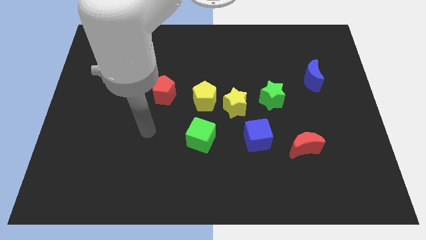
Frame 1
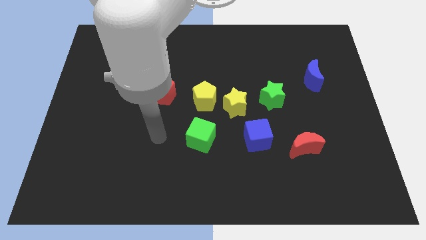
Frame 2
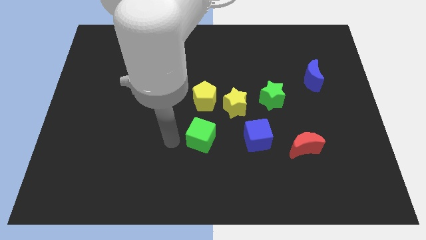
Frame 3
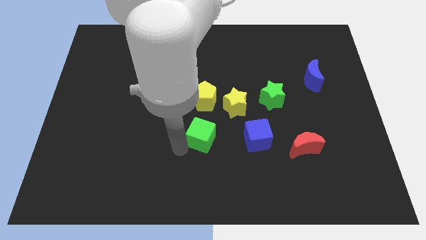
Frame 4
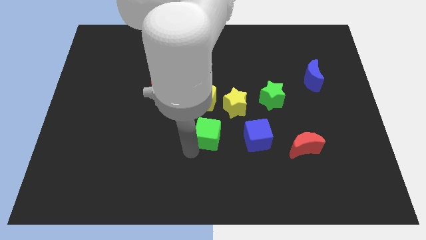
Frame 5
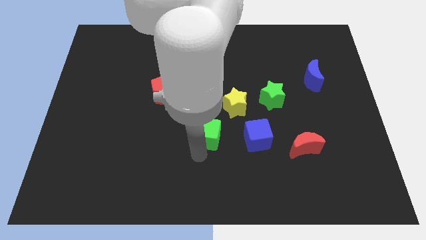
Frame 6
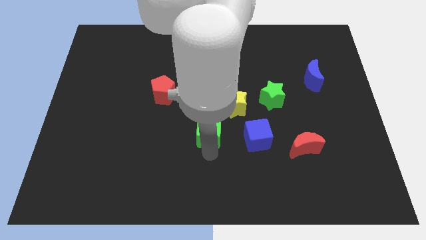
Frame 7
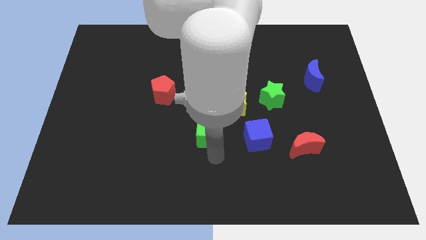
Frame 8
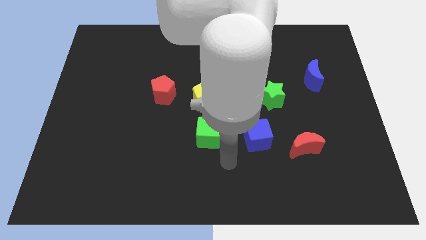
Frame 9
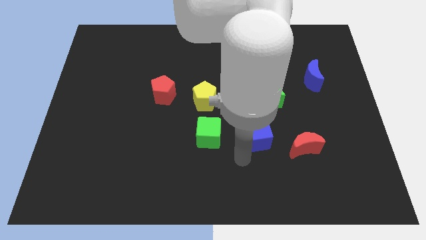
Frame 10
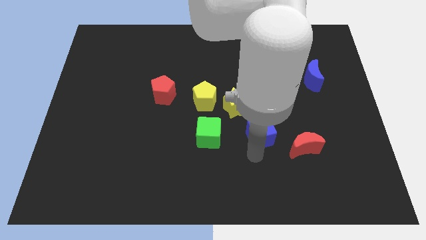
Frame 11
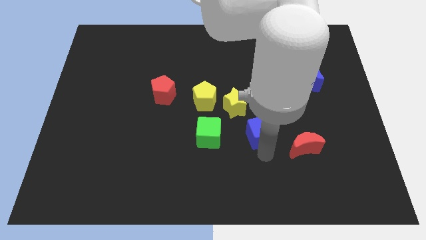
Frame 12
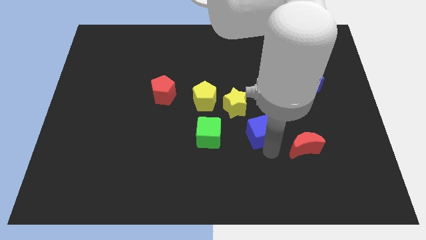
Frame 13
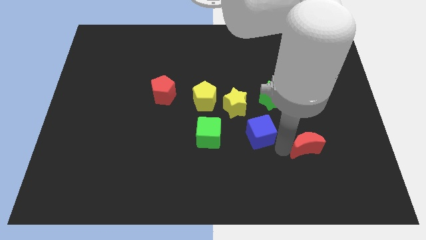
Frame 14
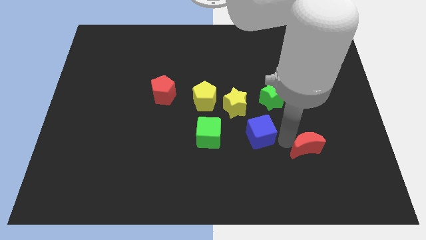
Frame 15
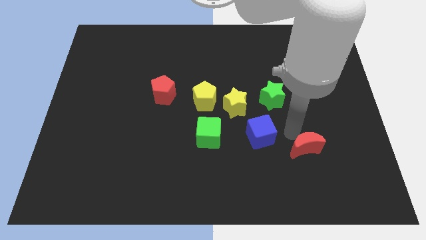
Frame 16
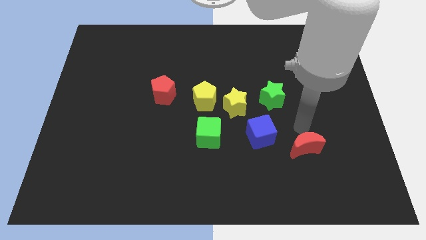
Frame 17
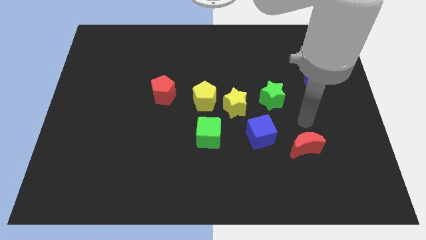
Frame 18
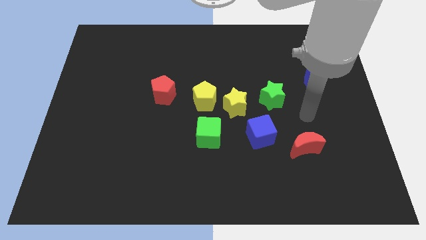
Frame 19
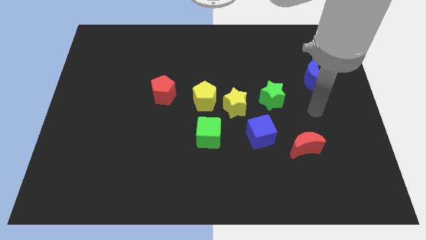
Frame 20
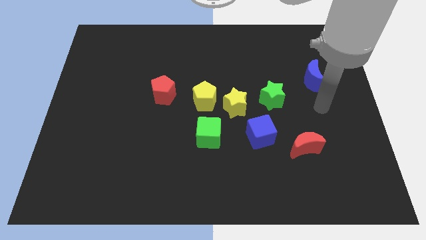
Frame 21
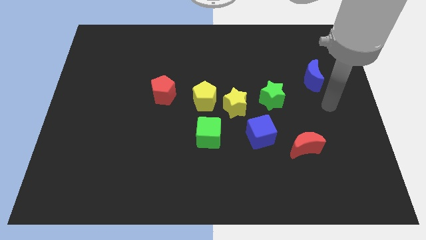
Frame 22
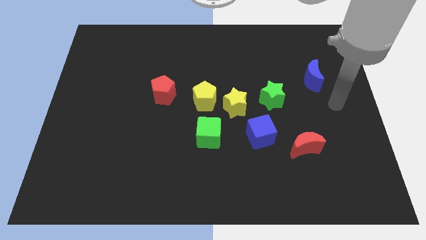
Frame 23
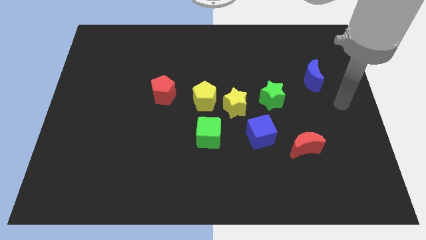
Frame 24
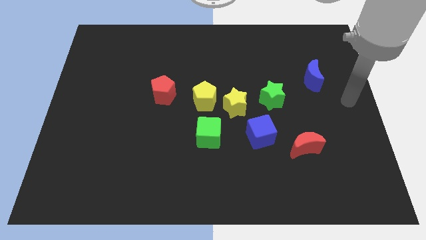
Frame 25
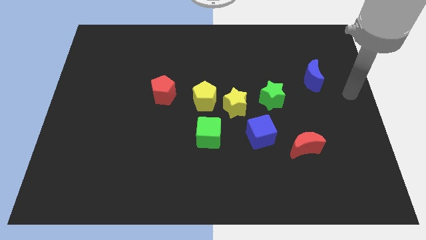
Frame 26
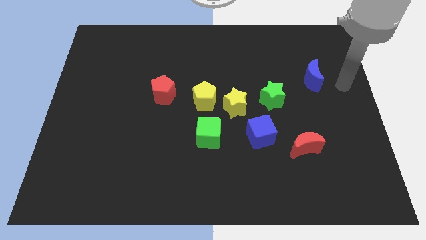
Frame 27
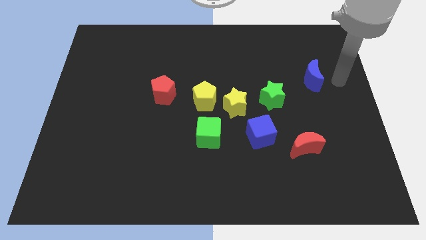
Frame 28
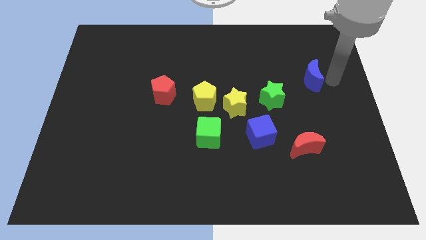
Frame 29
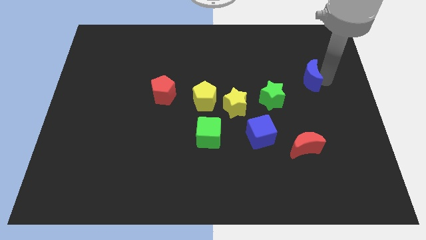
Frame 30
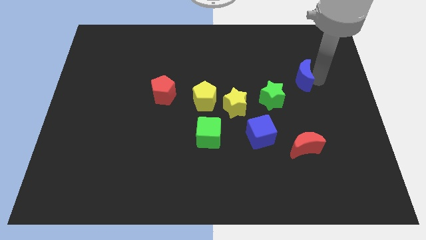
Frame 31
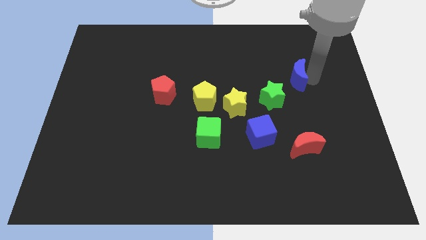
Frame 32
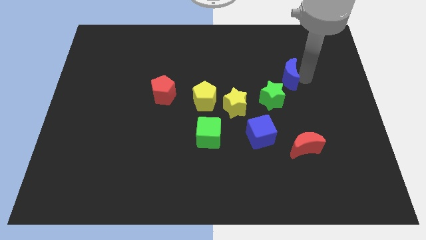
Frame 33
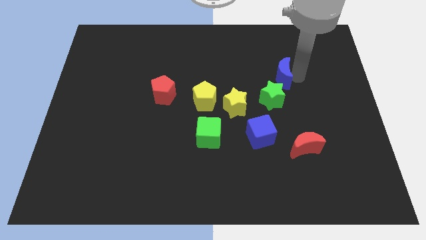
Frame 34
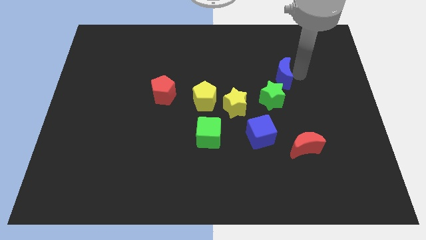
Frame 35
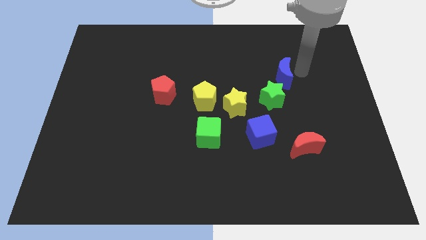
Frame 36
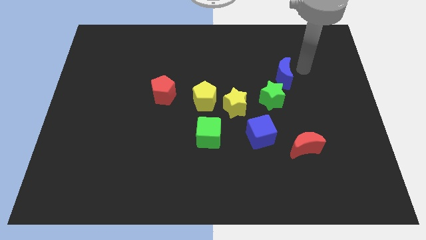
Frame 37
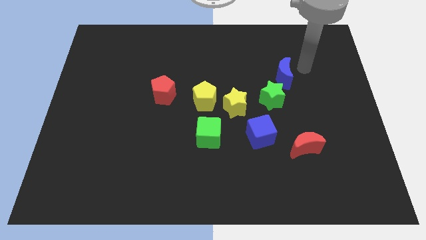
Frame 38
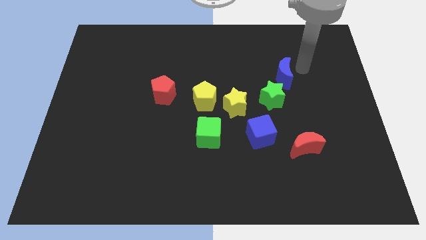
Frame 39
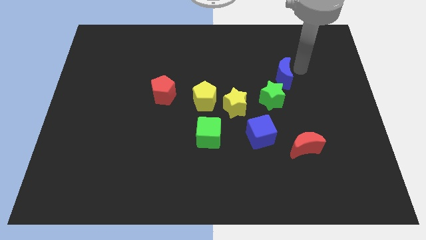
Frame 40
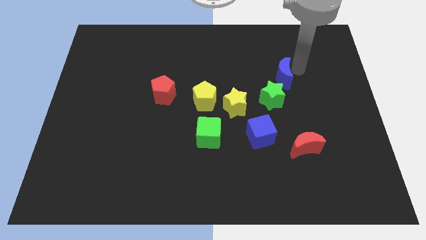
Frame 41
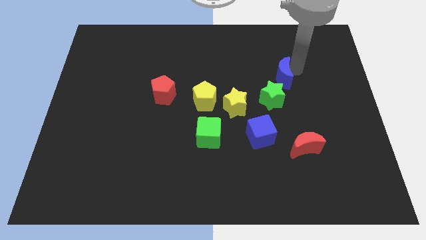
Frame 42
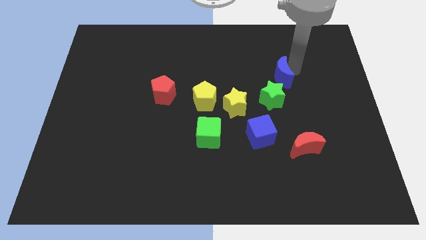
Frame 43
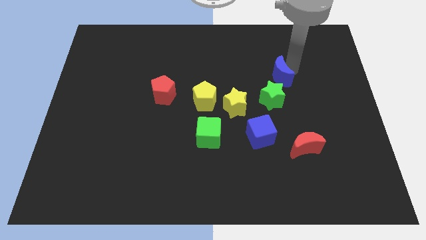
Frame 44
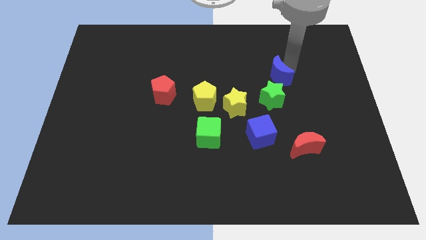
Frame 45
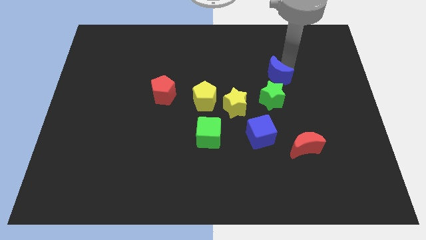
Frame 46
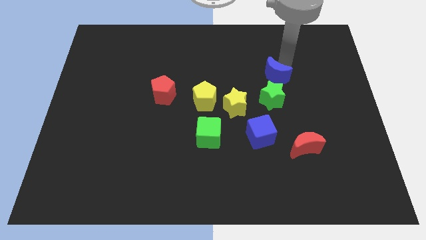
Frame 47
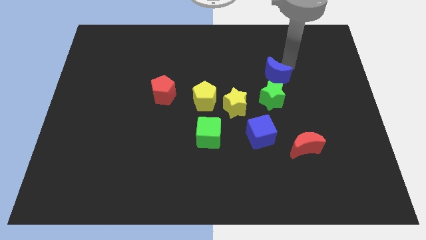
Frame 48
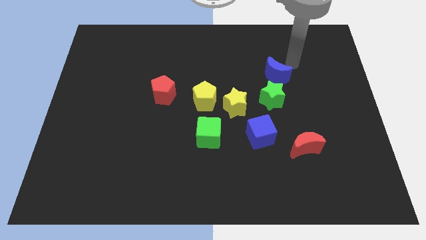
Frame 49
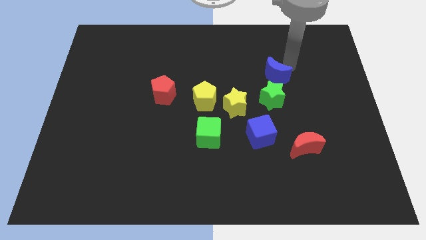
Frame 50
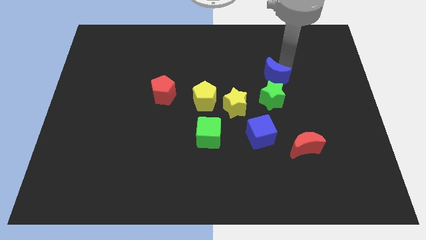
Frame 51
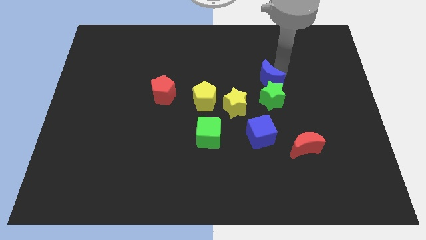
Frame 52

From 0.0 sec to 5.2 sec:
put the blue moon diagonally up and to the right of the yellow star

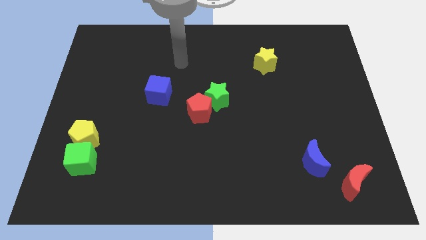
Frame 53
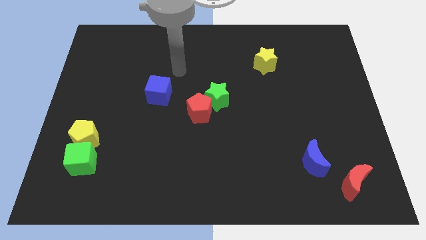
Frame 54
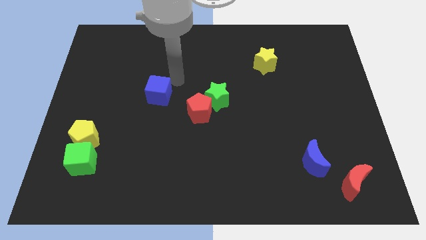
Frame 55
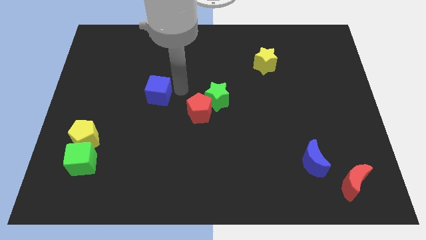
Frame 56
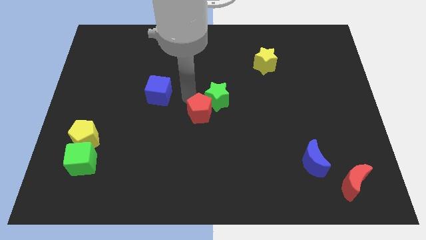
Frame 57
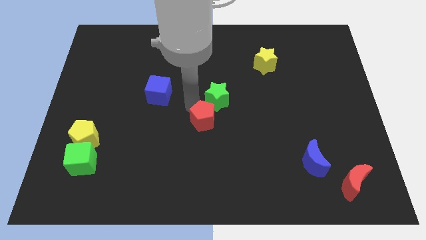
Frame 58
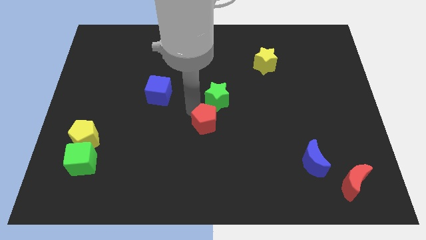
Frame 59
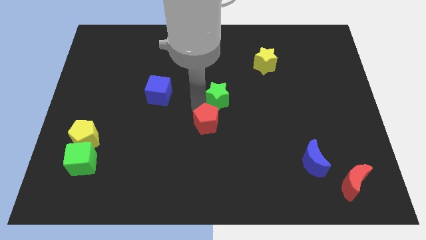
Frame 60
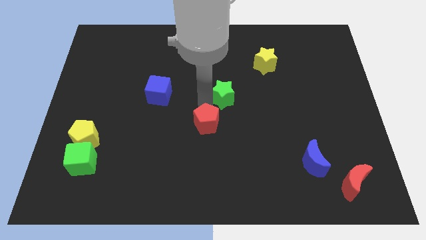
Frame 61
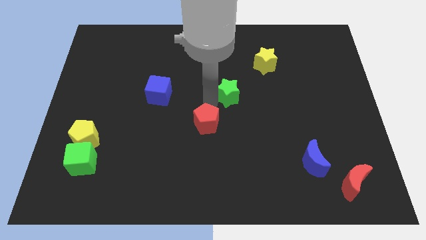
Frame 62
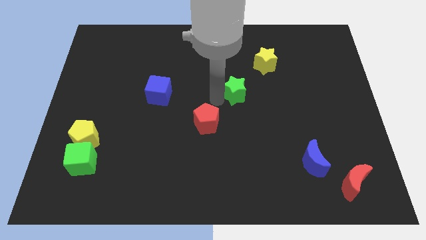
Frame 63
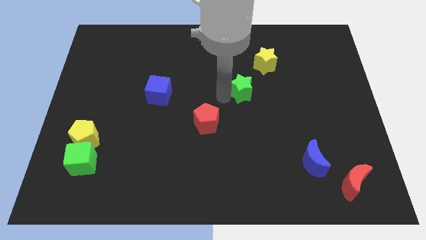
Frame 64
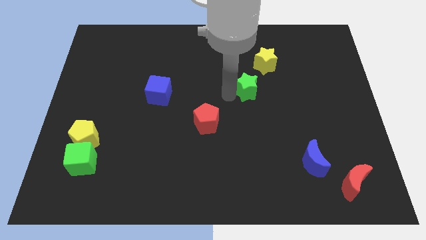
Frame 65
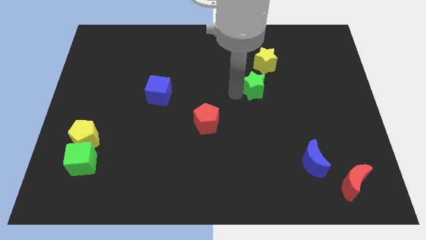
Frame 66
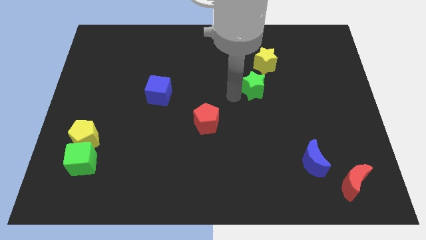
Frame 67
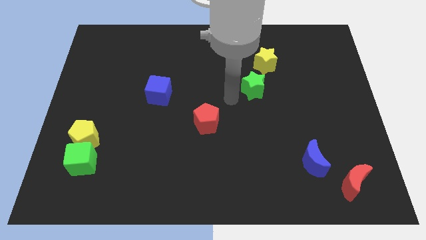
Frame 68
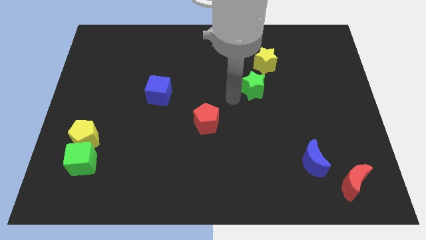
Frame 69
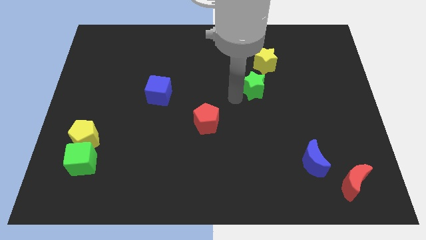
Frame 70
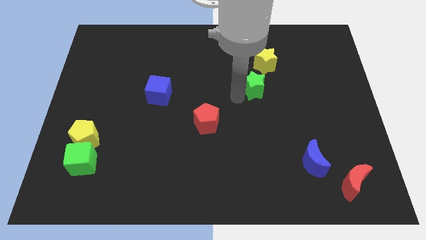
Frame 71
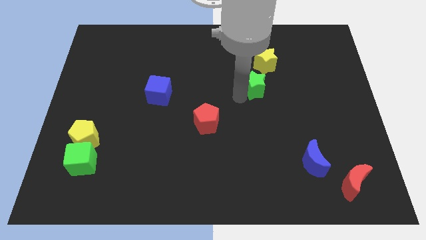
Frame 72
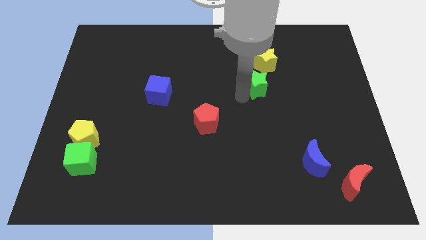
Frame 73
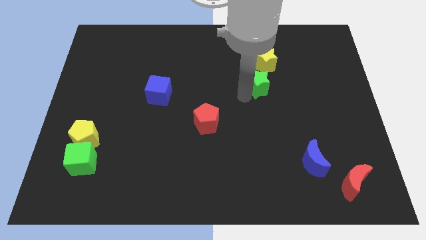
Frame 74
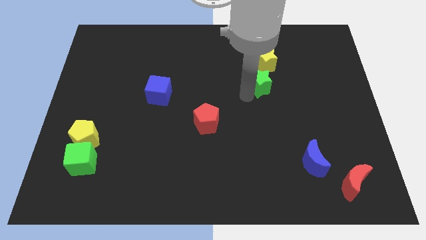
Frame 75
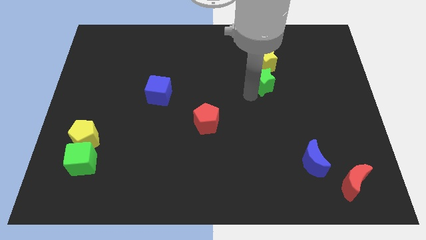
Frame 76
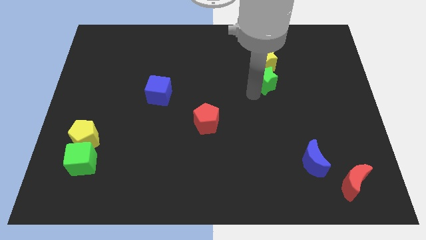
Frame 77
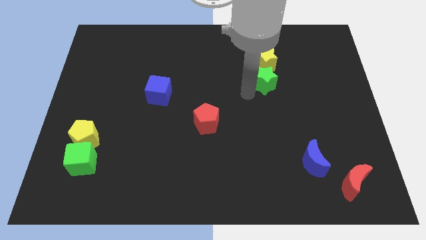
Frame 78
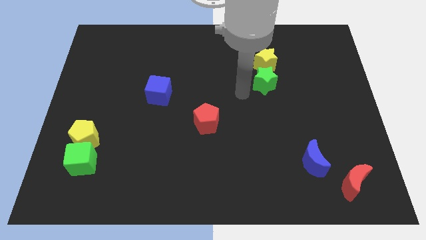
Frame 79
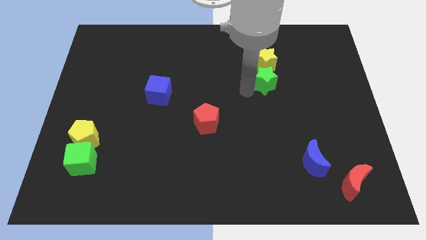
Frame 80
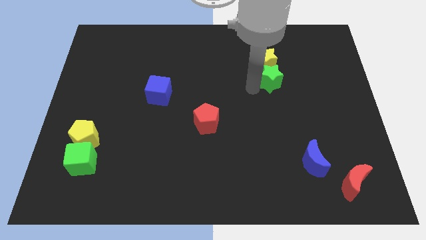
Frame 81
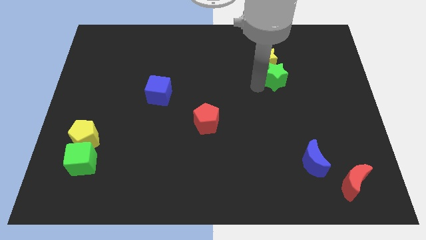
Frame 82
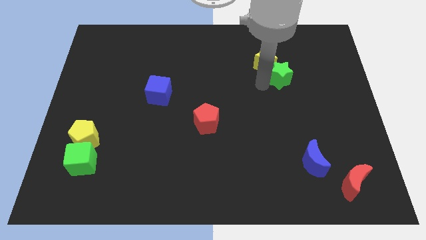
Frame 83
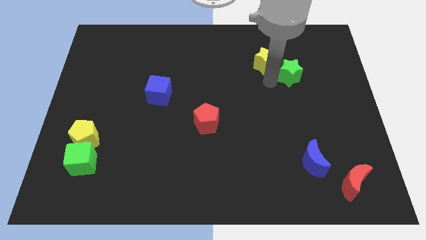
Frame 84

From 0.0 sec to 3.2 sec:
put the green star just right of the yellow star
